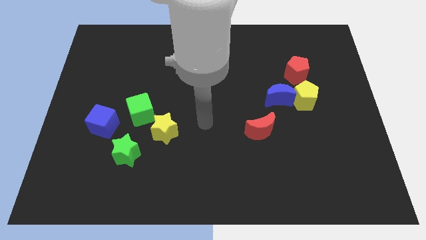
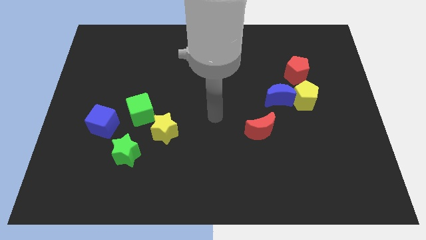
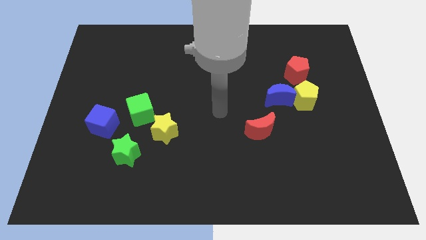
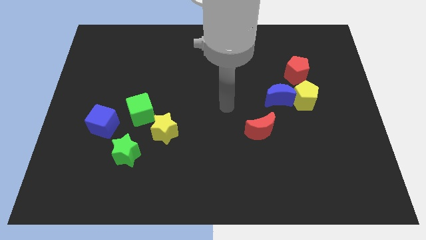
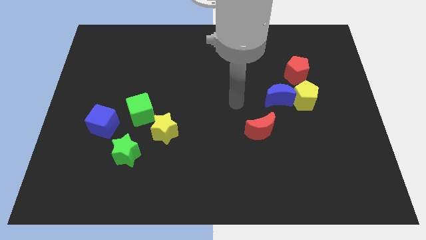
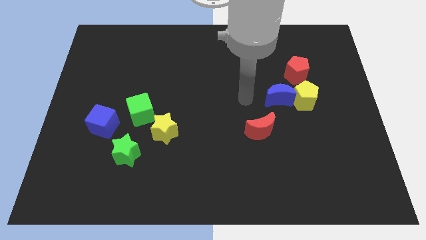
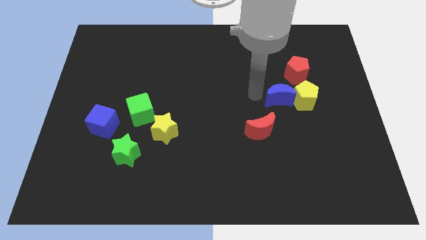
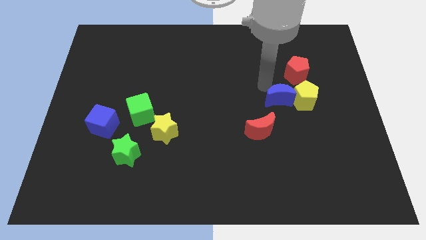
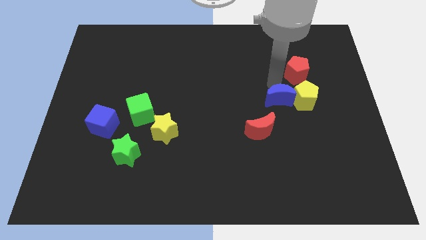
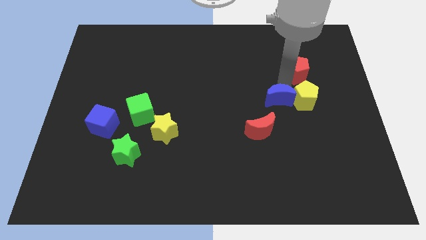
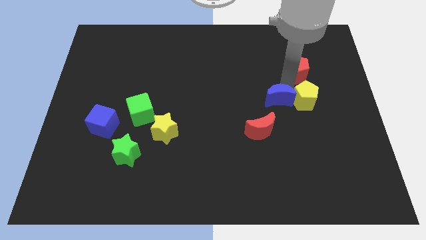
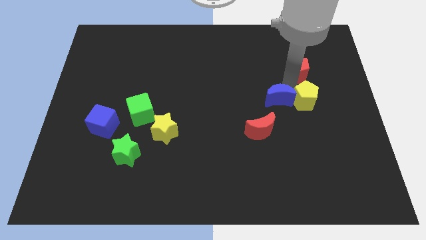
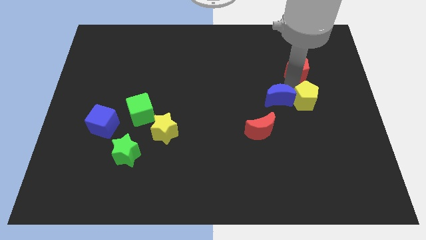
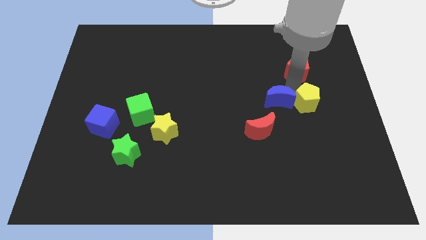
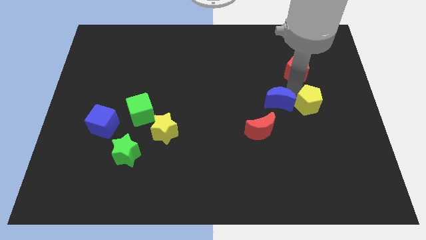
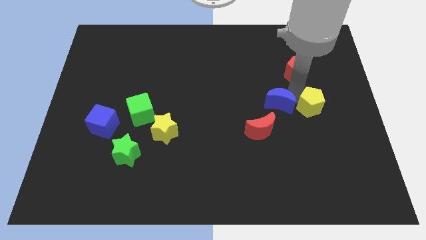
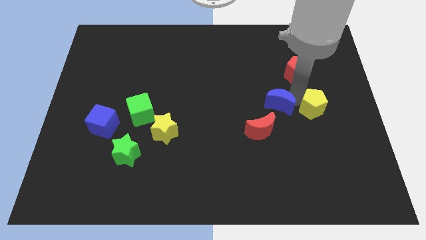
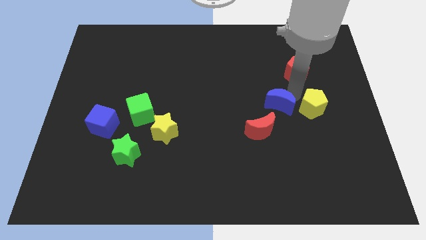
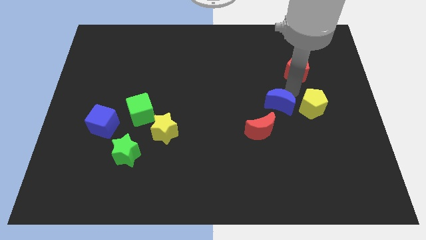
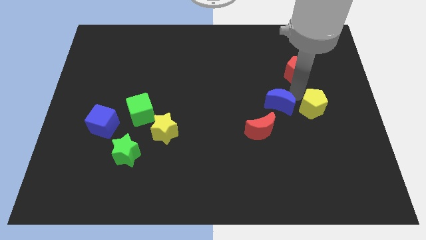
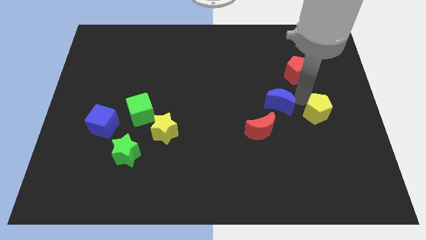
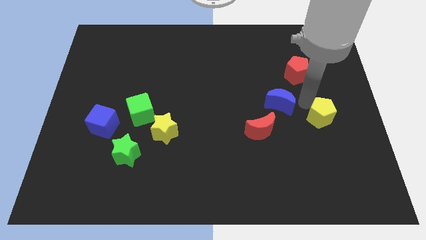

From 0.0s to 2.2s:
move the yellow pentagon away from the blue moon and red pentagon

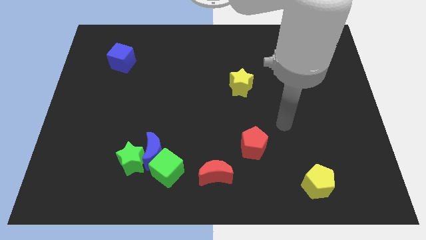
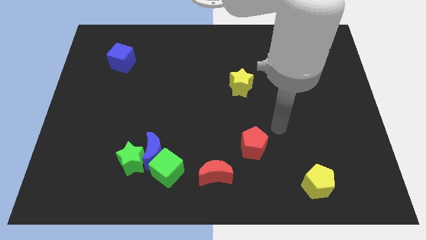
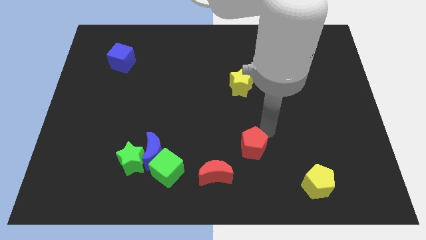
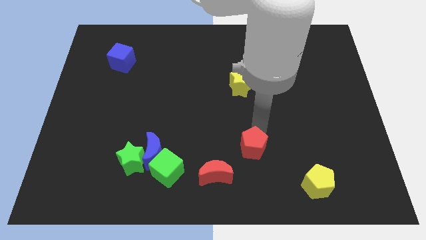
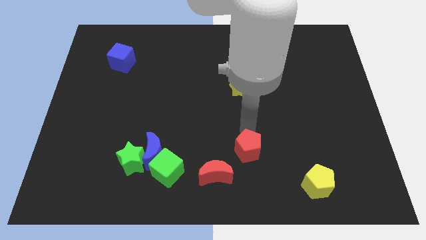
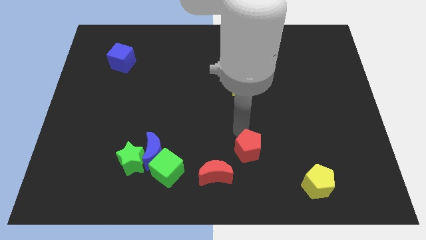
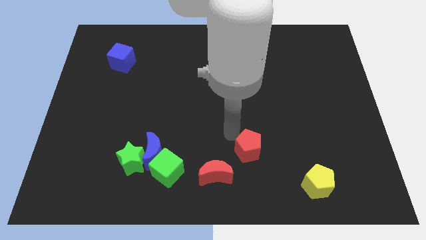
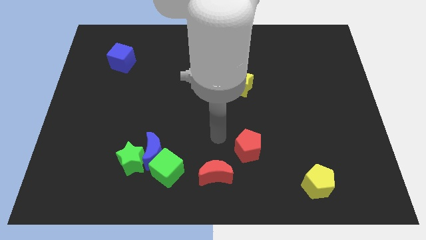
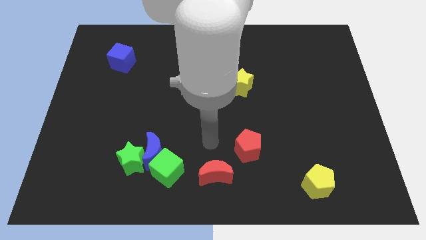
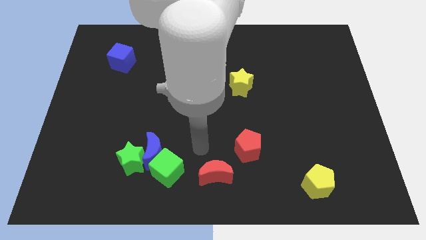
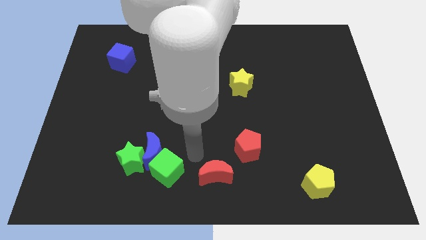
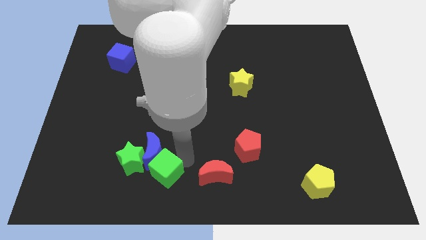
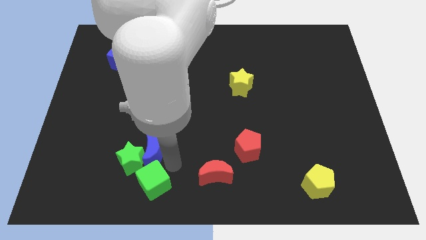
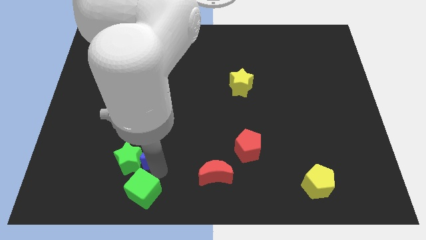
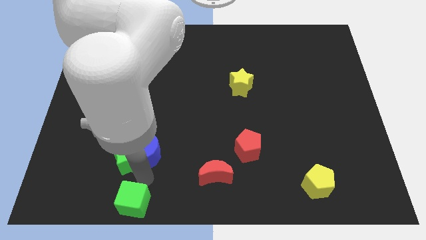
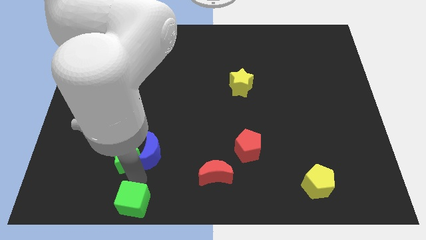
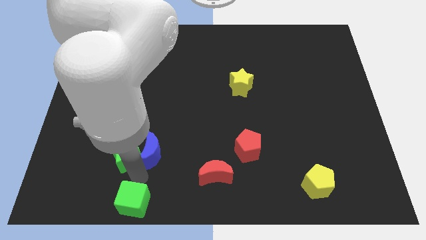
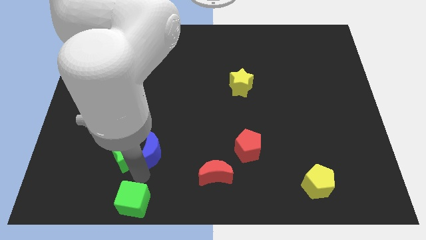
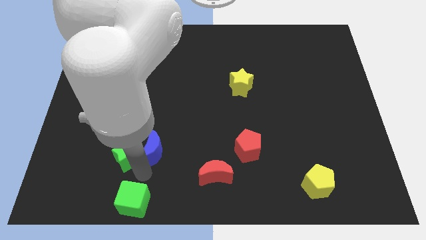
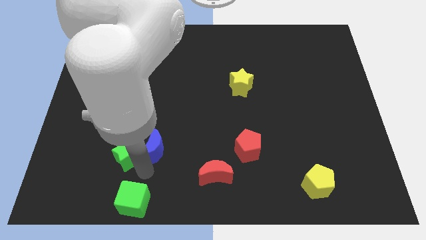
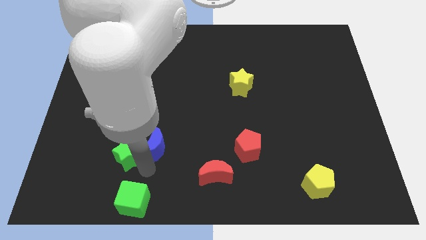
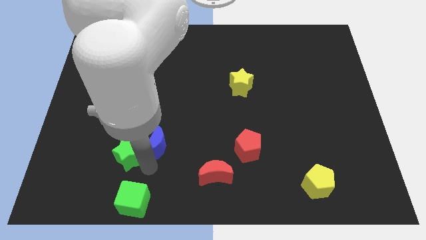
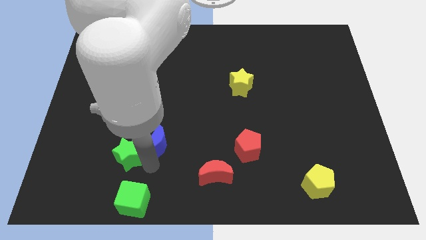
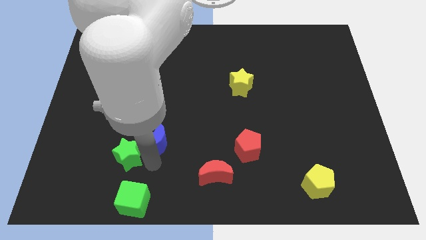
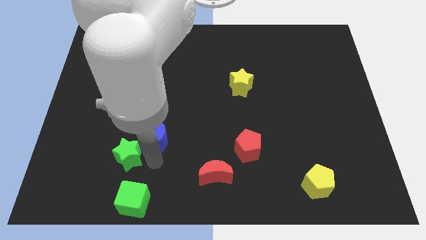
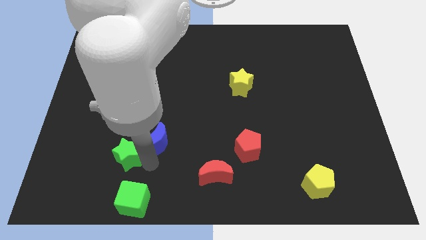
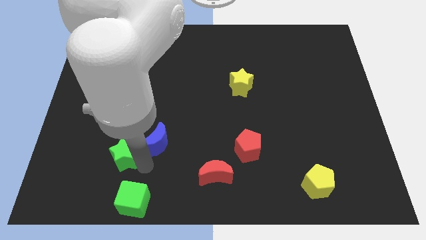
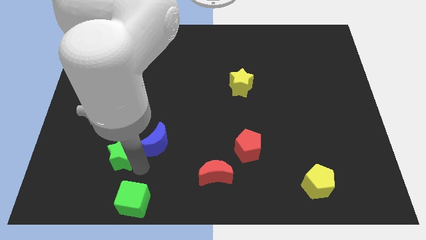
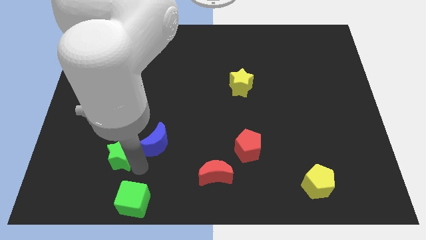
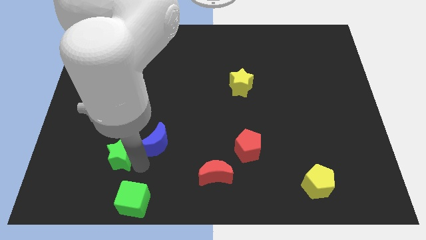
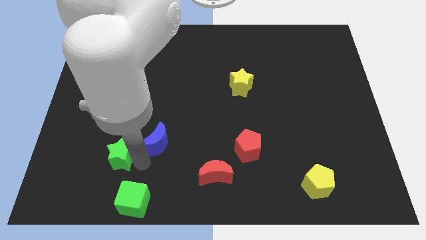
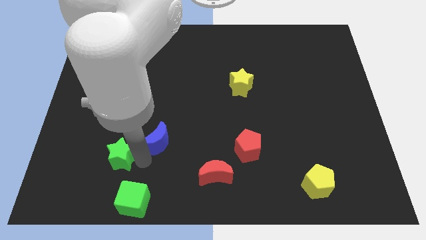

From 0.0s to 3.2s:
separate the blue moon from the green star and green cube

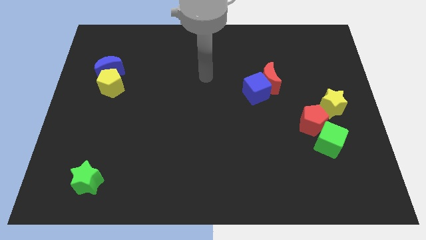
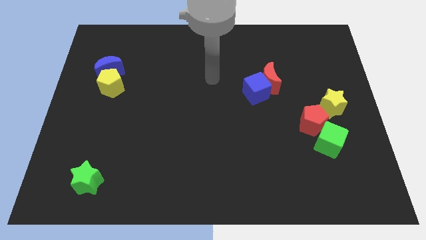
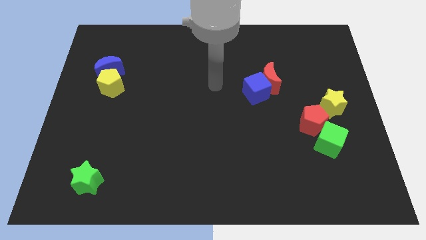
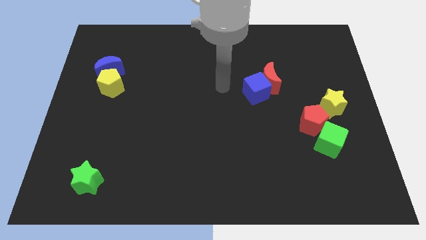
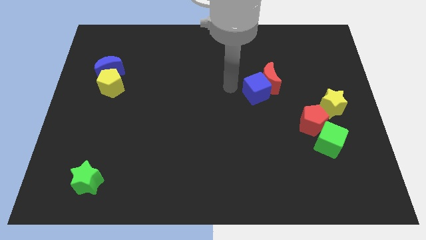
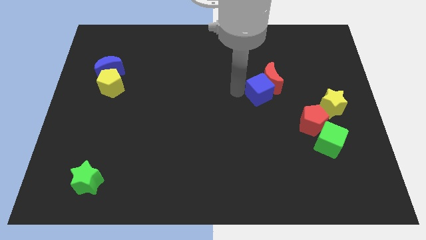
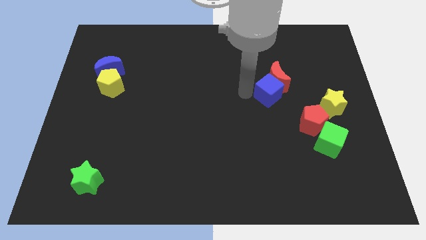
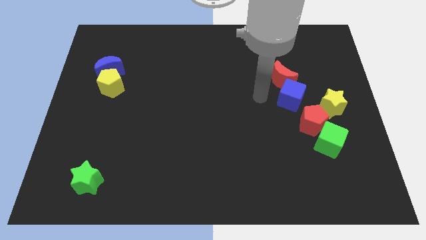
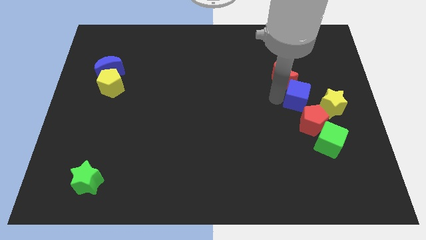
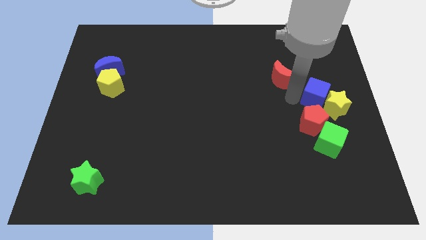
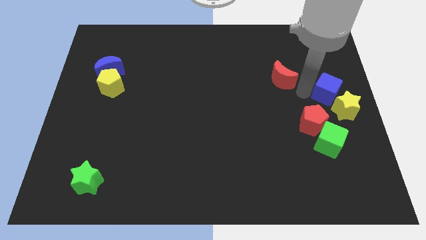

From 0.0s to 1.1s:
separate the red moon from the blue cube

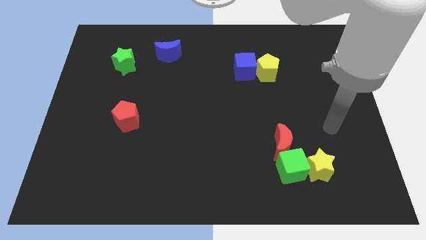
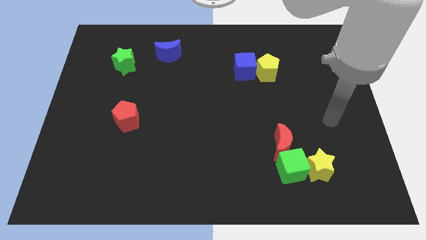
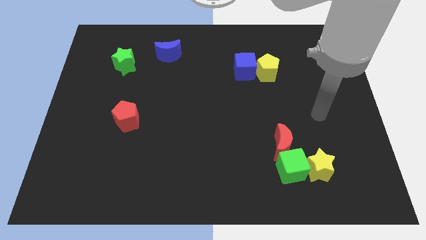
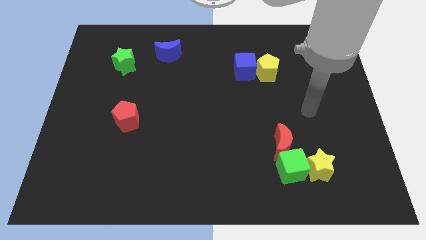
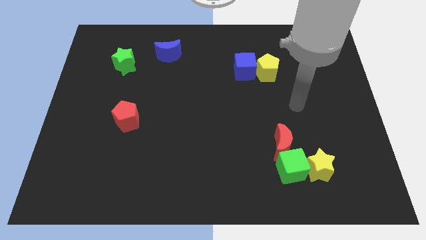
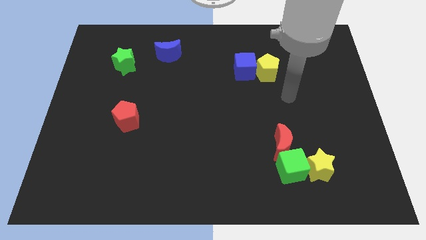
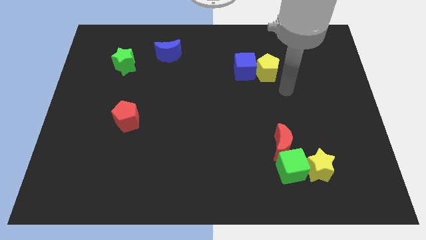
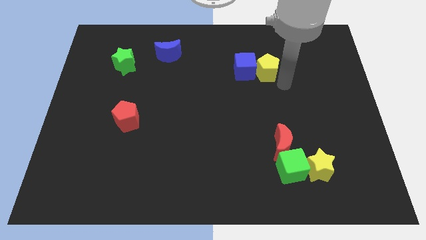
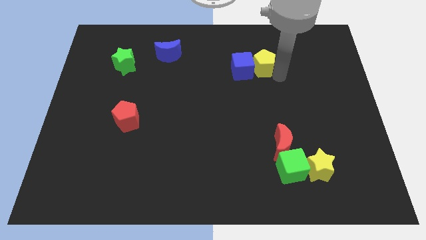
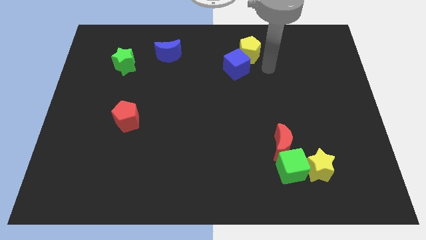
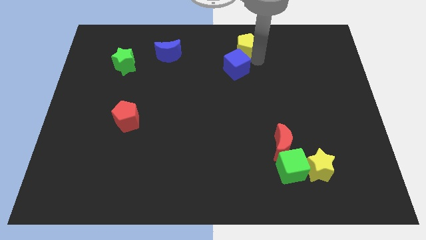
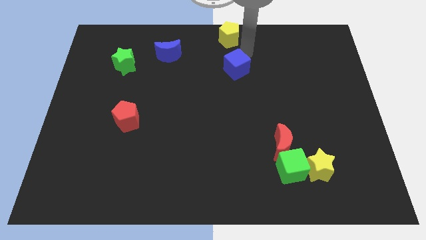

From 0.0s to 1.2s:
separate the blue cube from the yellow pentagon

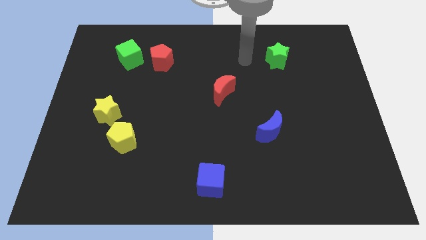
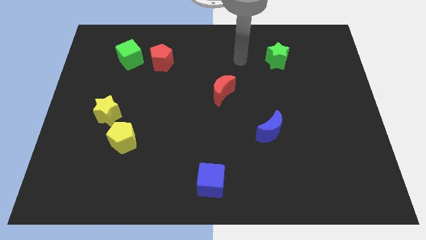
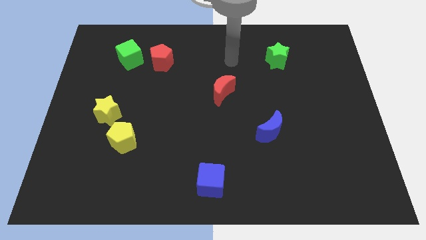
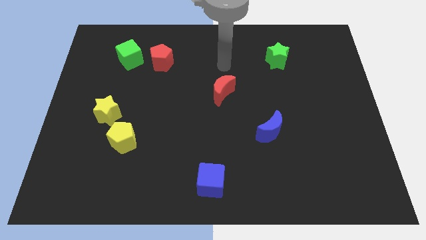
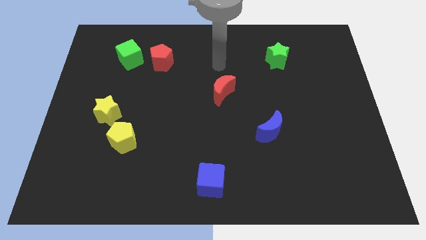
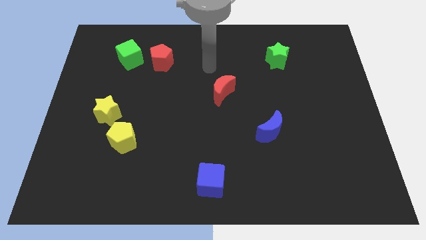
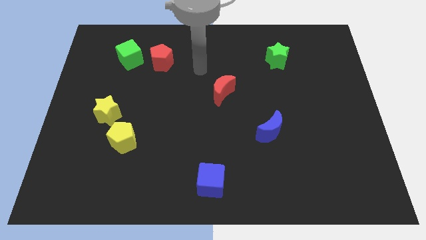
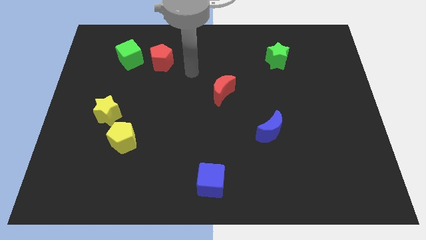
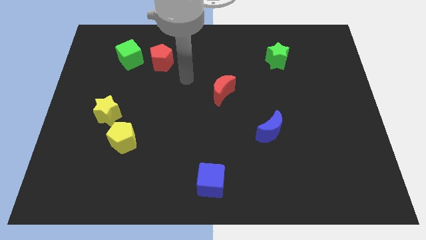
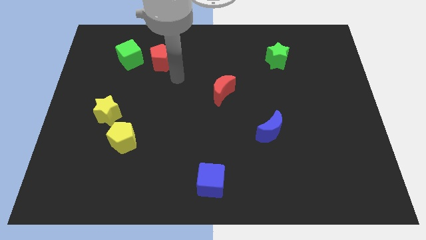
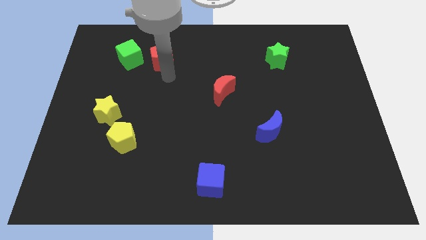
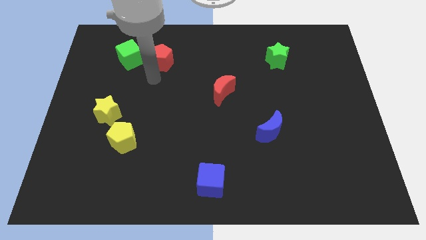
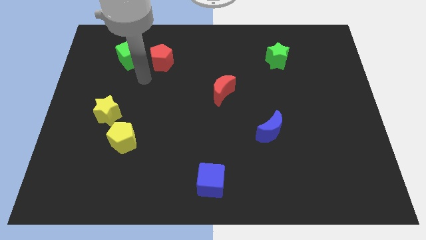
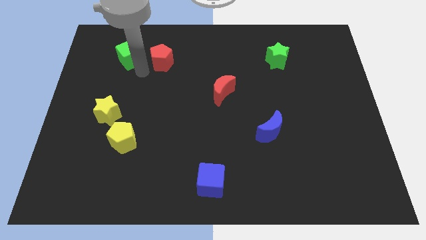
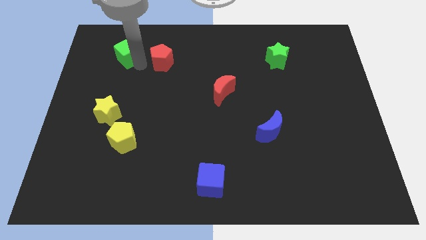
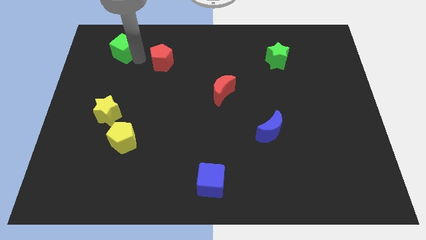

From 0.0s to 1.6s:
separate the red pentagon from the green cube
